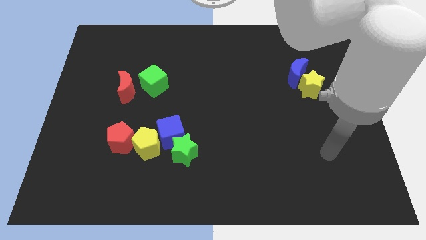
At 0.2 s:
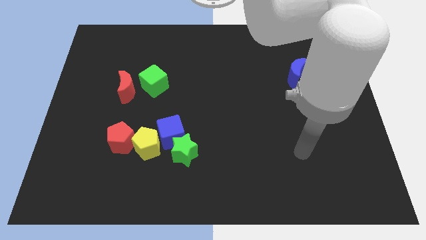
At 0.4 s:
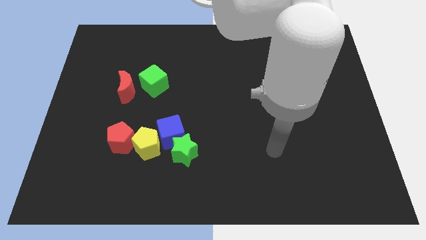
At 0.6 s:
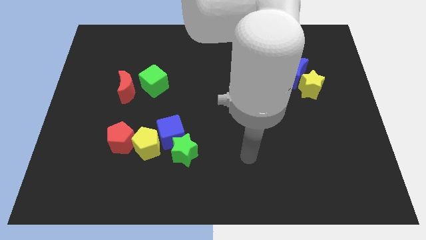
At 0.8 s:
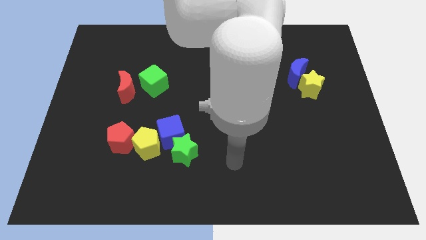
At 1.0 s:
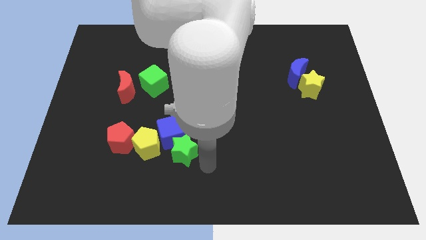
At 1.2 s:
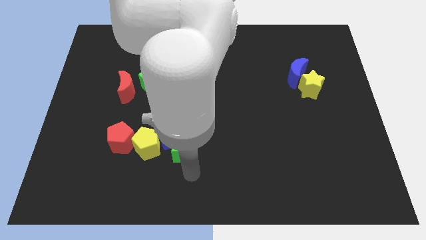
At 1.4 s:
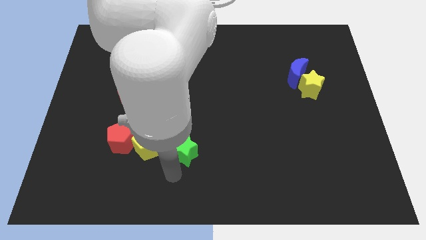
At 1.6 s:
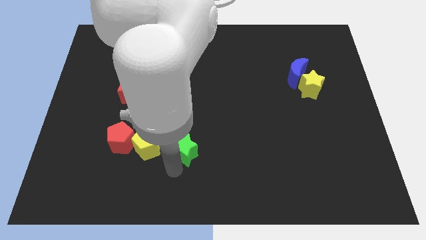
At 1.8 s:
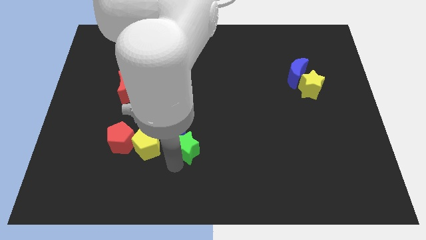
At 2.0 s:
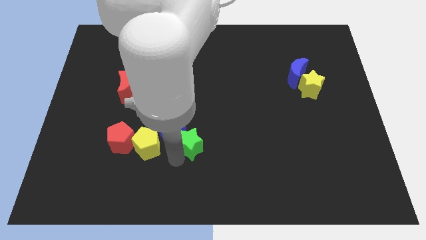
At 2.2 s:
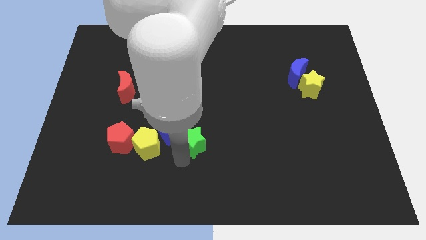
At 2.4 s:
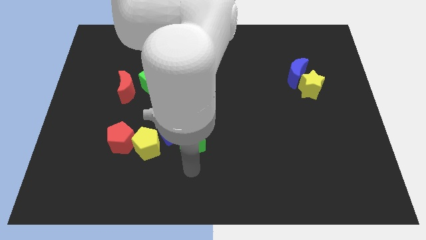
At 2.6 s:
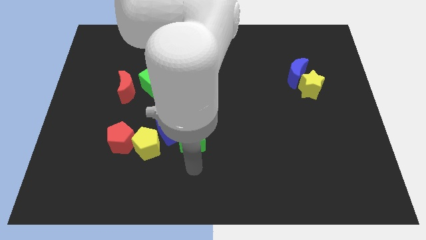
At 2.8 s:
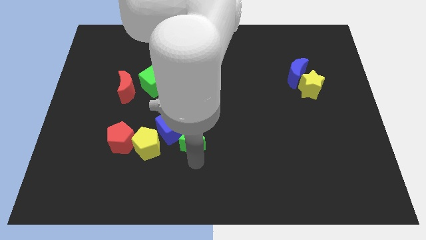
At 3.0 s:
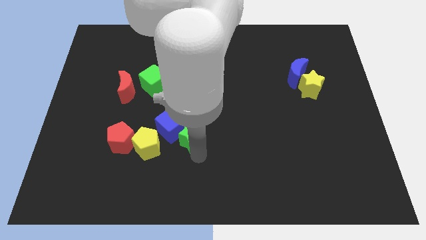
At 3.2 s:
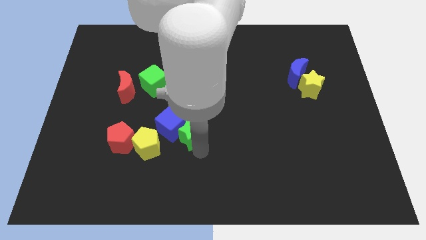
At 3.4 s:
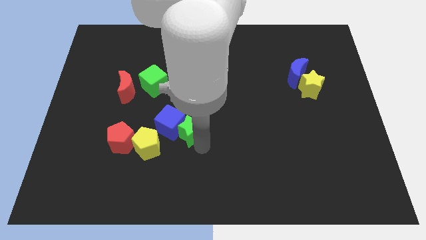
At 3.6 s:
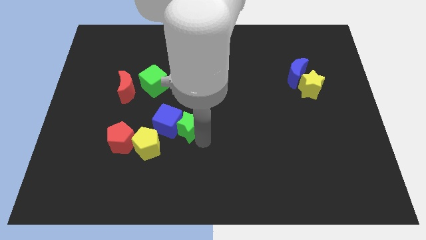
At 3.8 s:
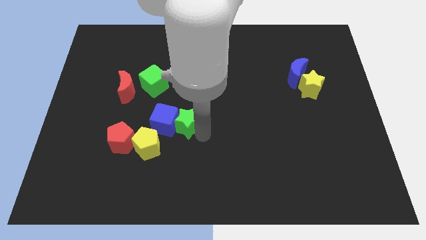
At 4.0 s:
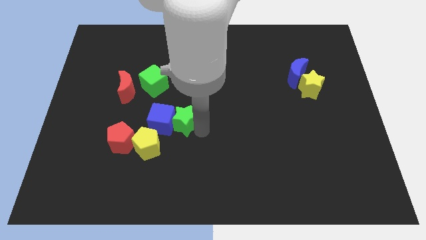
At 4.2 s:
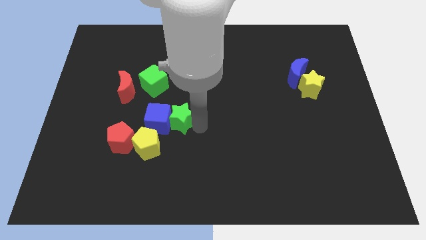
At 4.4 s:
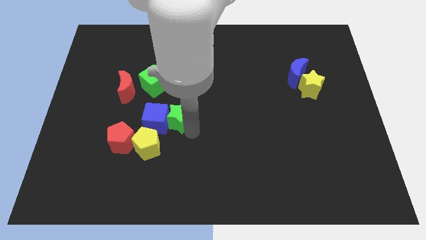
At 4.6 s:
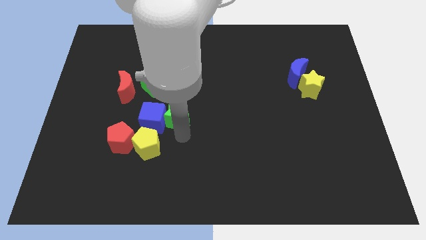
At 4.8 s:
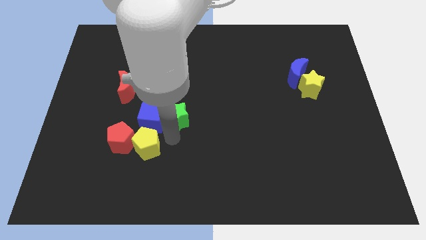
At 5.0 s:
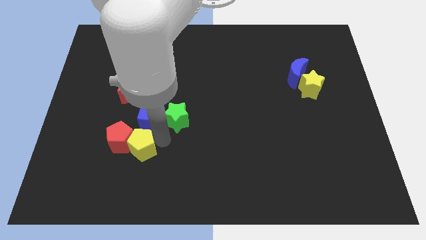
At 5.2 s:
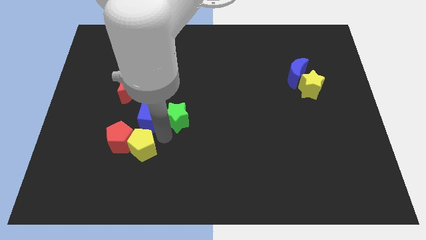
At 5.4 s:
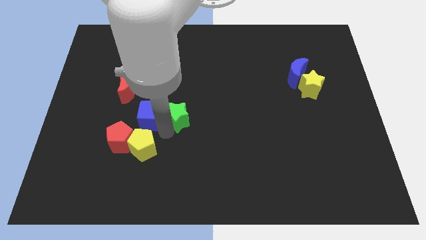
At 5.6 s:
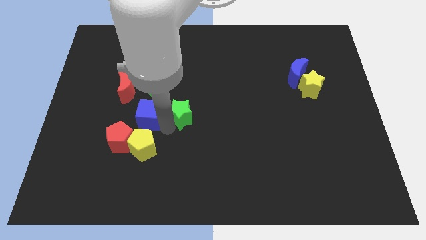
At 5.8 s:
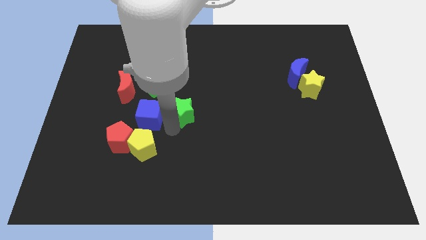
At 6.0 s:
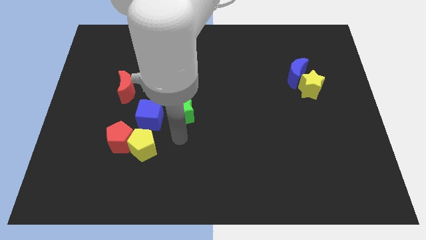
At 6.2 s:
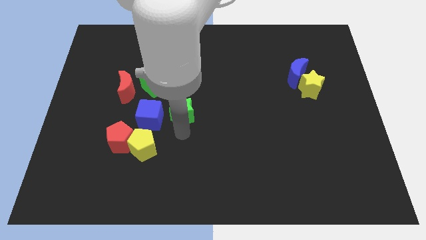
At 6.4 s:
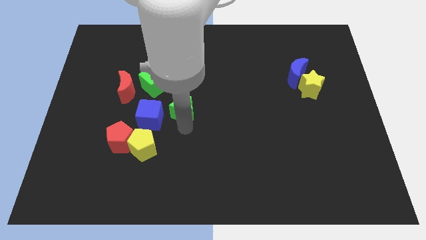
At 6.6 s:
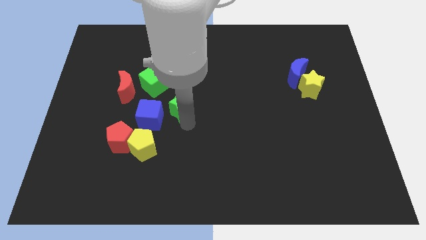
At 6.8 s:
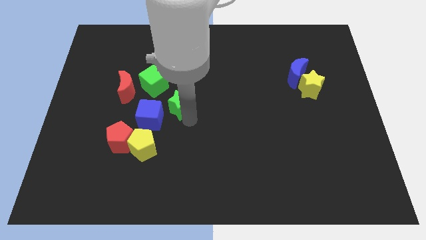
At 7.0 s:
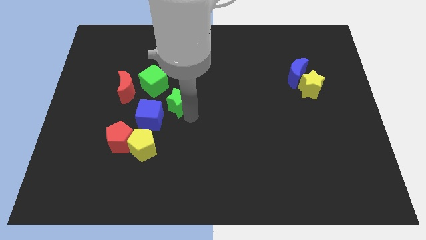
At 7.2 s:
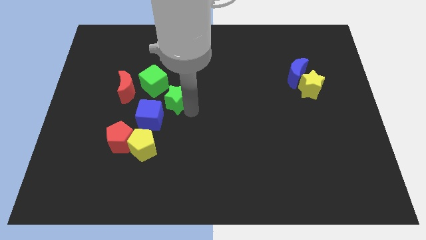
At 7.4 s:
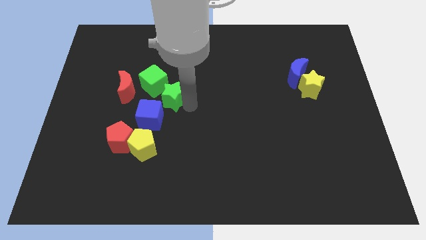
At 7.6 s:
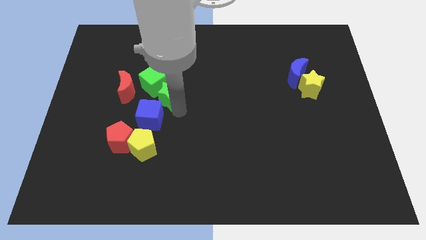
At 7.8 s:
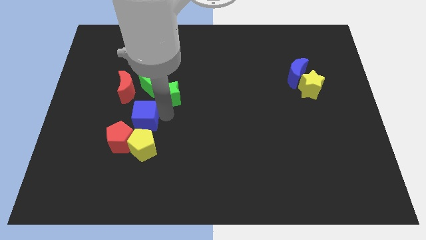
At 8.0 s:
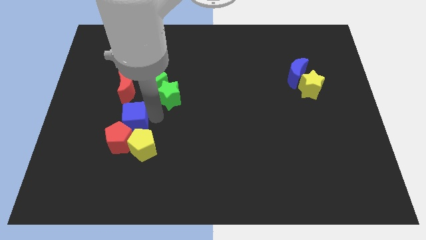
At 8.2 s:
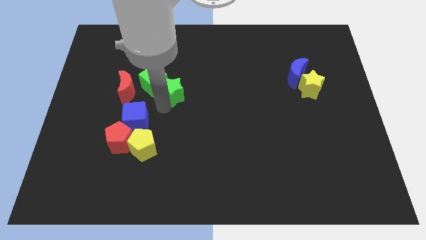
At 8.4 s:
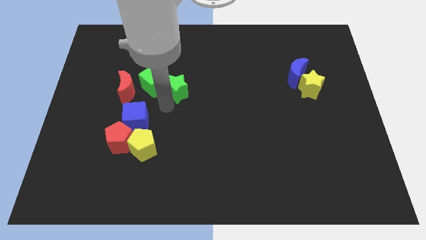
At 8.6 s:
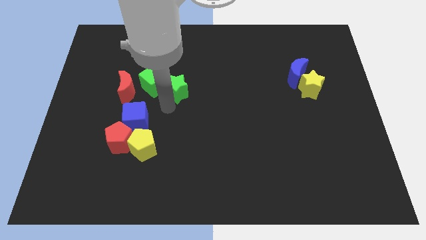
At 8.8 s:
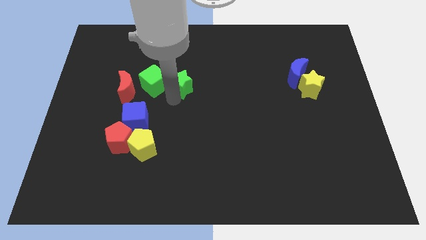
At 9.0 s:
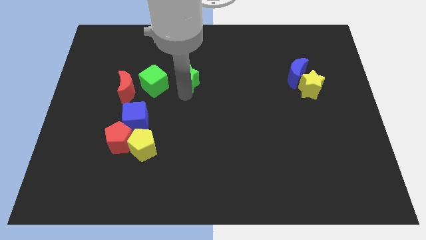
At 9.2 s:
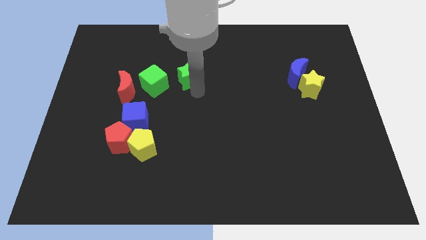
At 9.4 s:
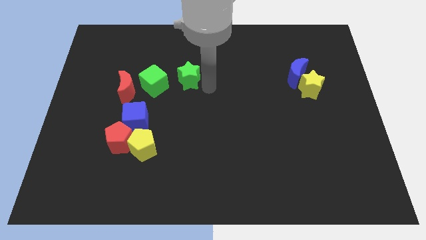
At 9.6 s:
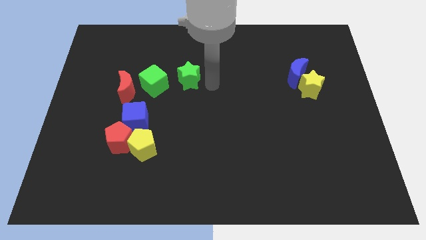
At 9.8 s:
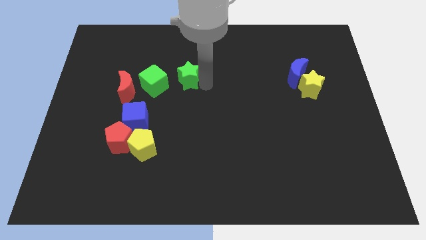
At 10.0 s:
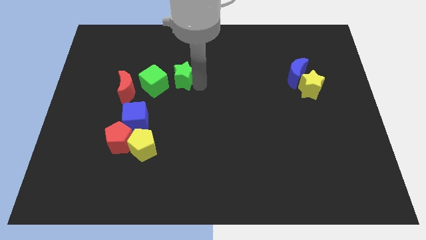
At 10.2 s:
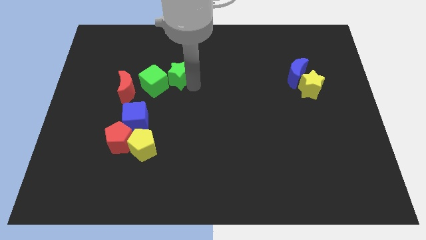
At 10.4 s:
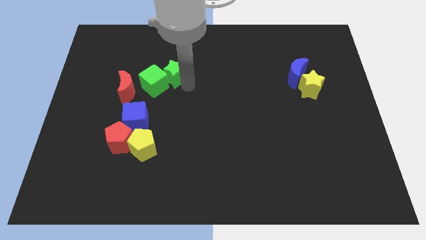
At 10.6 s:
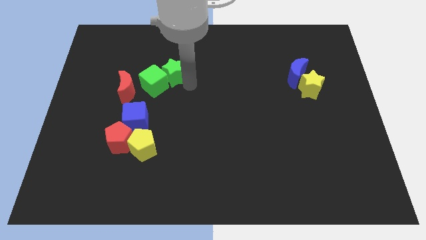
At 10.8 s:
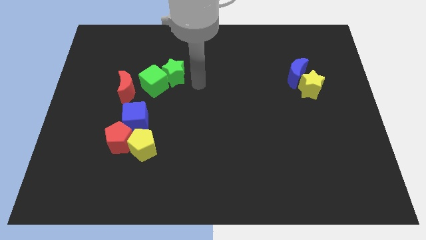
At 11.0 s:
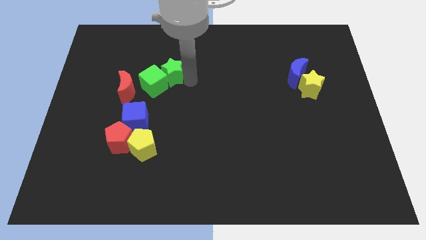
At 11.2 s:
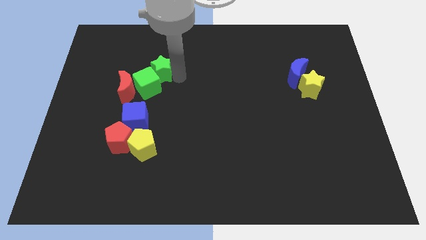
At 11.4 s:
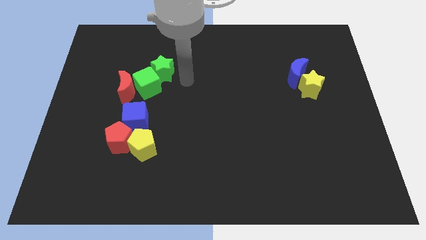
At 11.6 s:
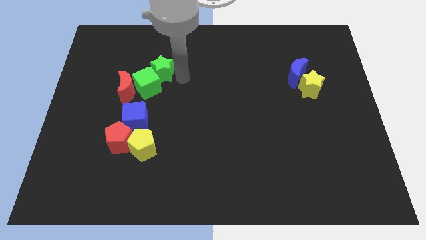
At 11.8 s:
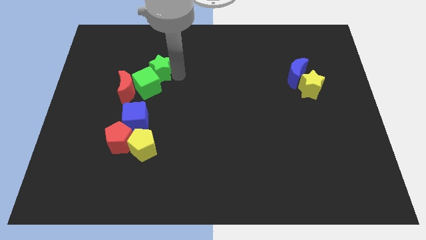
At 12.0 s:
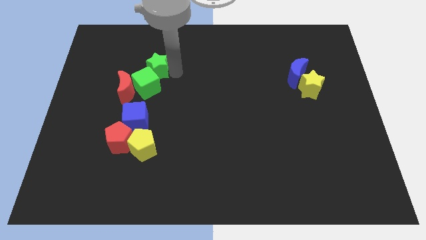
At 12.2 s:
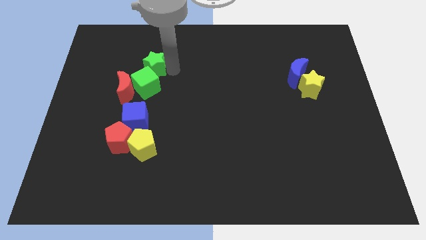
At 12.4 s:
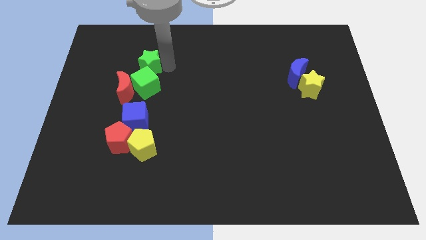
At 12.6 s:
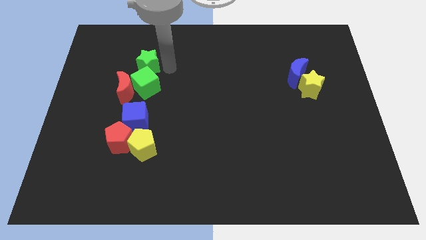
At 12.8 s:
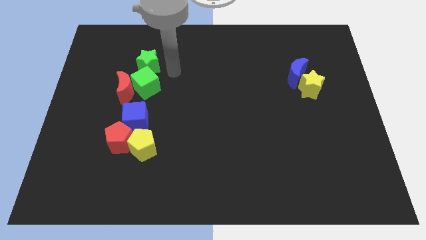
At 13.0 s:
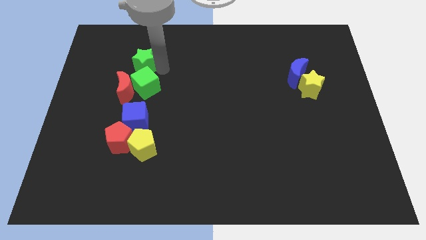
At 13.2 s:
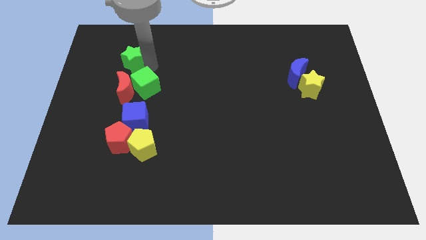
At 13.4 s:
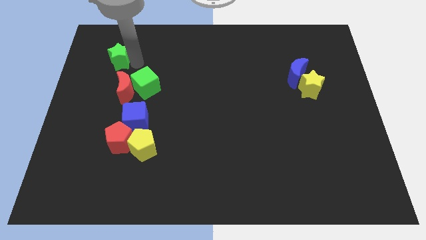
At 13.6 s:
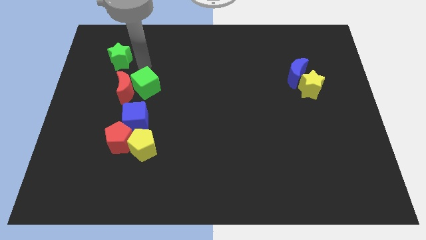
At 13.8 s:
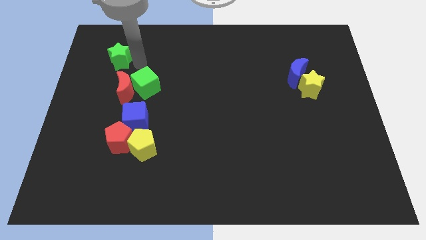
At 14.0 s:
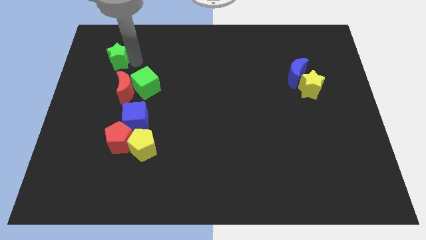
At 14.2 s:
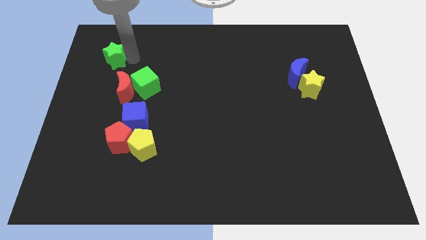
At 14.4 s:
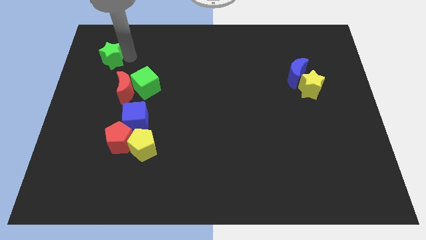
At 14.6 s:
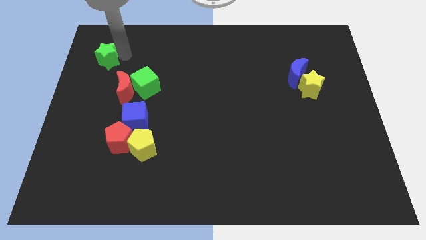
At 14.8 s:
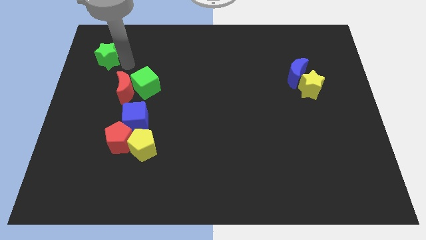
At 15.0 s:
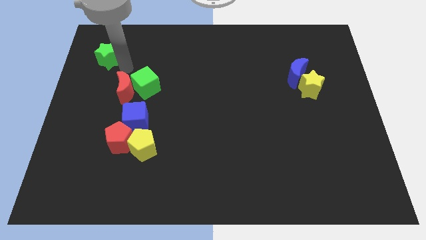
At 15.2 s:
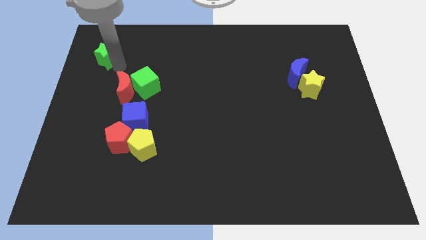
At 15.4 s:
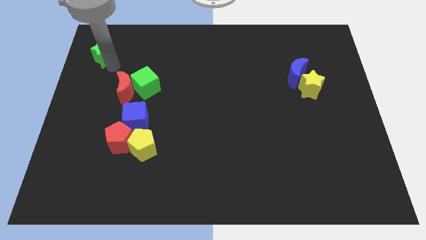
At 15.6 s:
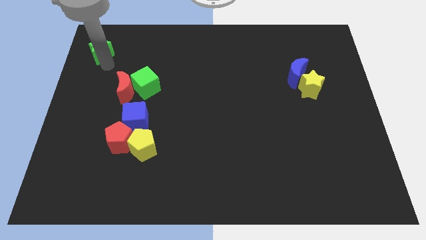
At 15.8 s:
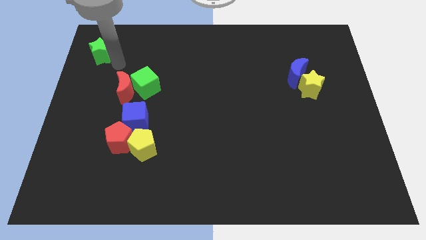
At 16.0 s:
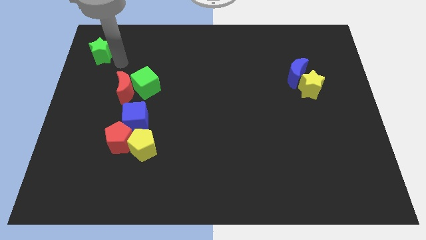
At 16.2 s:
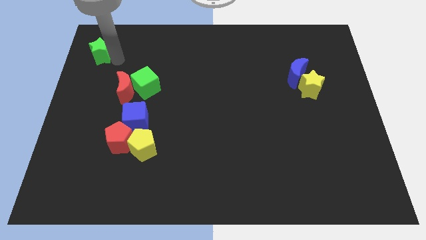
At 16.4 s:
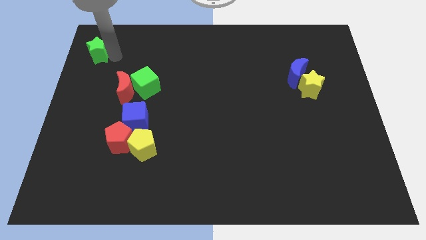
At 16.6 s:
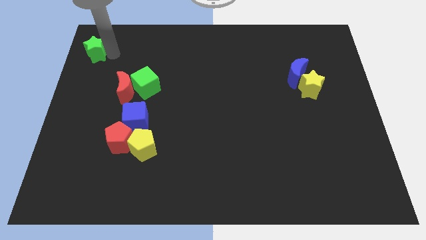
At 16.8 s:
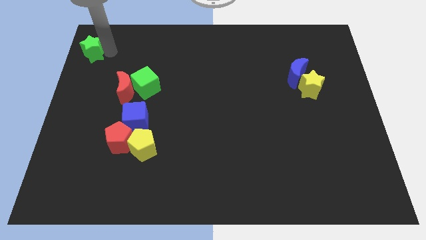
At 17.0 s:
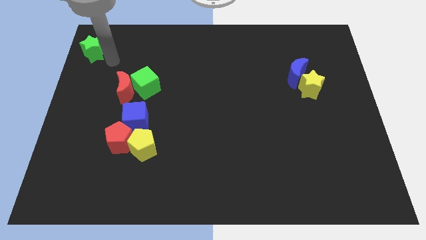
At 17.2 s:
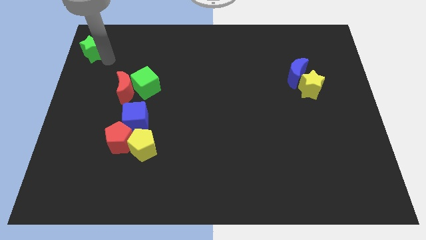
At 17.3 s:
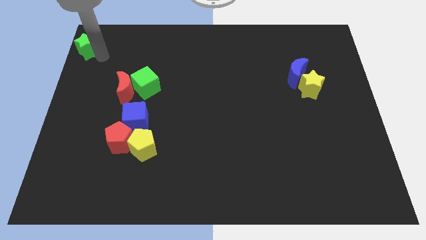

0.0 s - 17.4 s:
put the green star to the top left of the board
